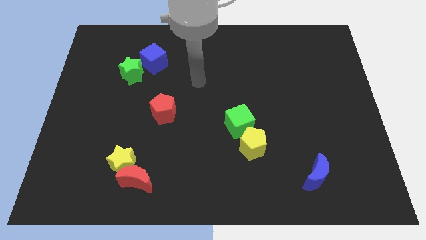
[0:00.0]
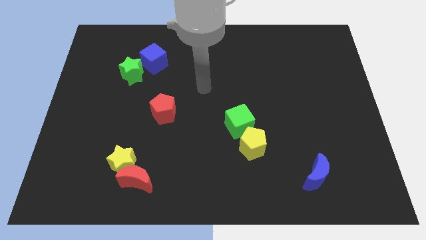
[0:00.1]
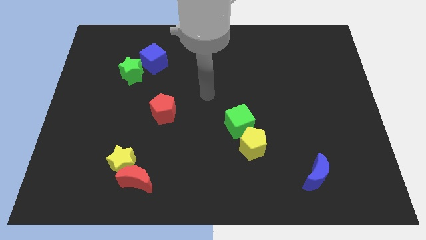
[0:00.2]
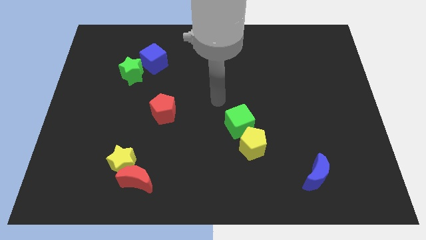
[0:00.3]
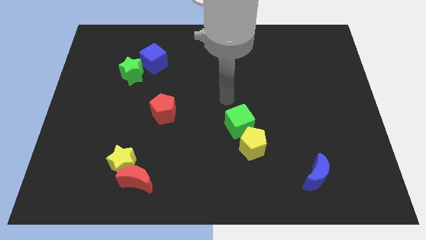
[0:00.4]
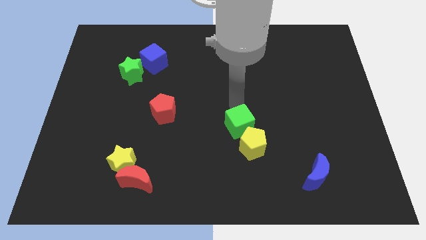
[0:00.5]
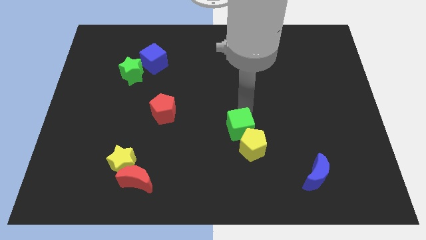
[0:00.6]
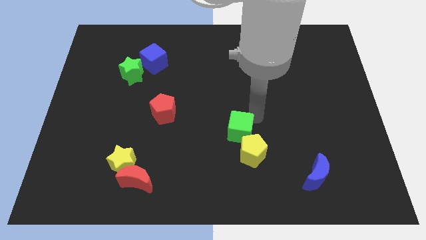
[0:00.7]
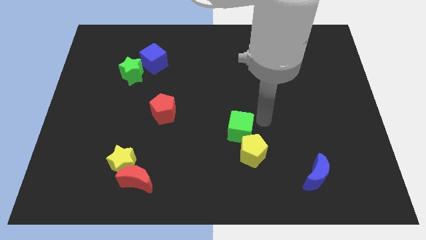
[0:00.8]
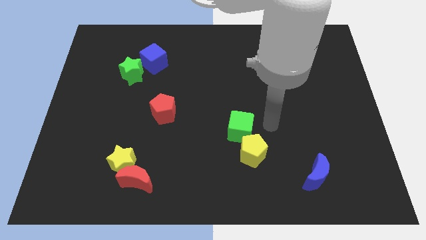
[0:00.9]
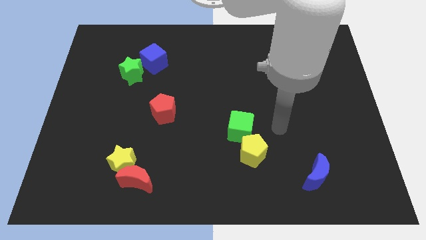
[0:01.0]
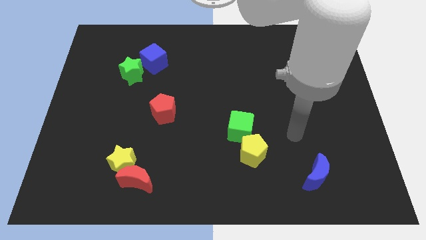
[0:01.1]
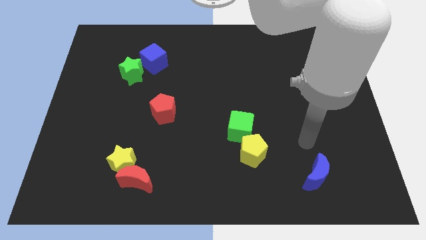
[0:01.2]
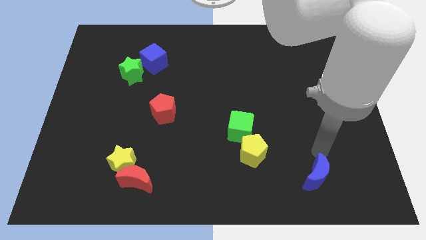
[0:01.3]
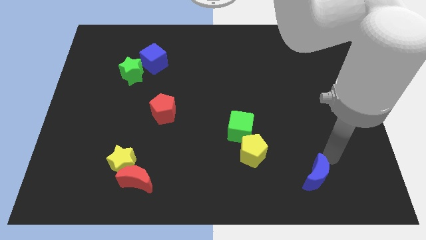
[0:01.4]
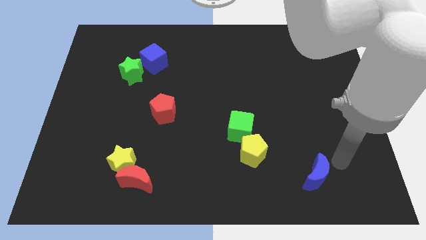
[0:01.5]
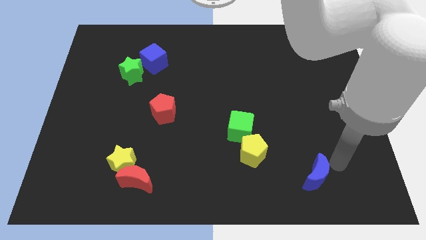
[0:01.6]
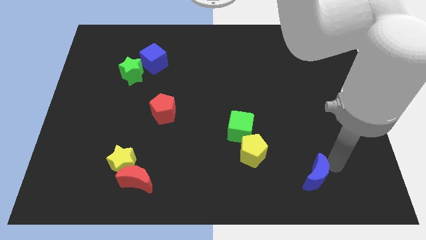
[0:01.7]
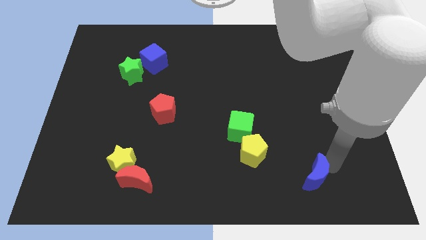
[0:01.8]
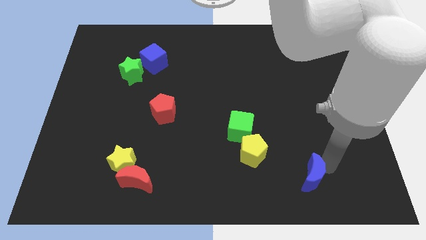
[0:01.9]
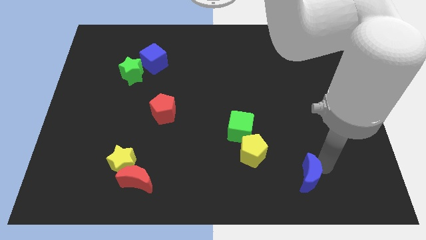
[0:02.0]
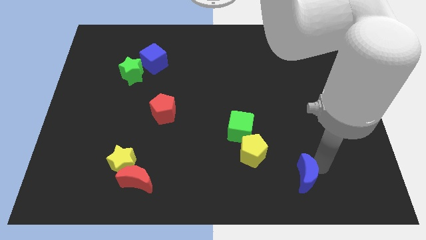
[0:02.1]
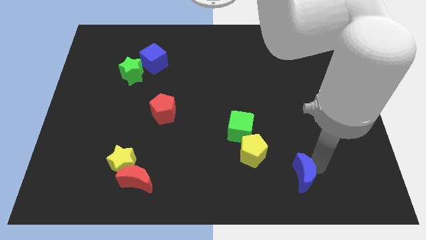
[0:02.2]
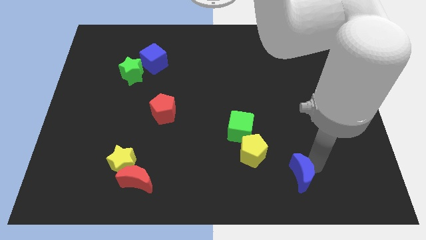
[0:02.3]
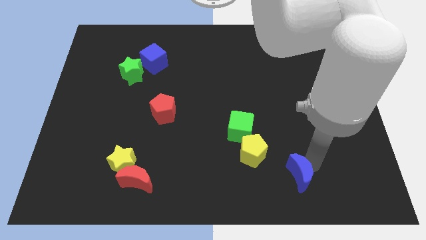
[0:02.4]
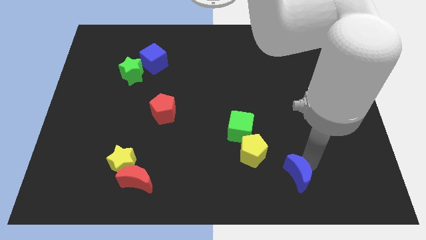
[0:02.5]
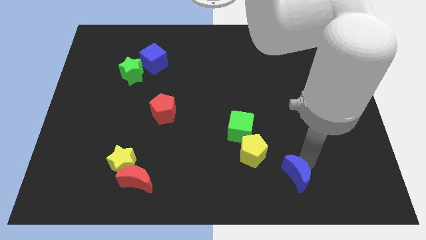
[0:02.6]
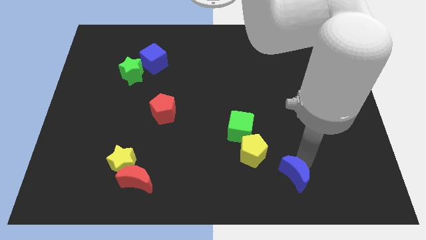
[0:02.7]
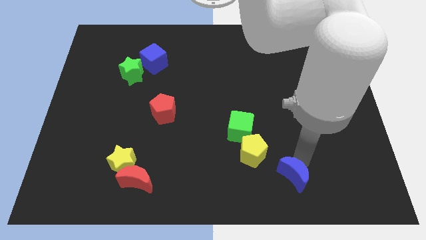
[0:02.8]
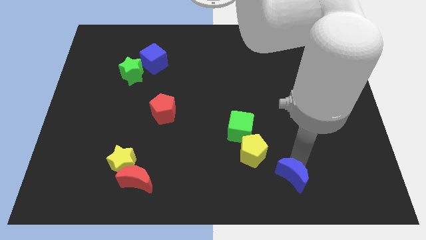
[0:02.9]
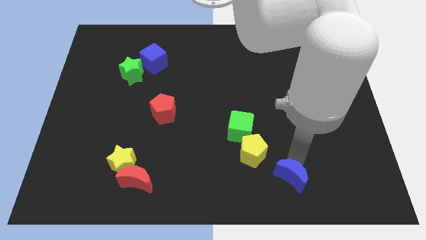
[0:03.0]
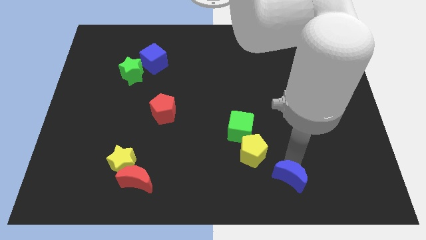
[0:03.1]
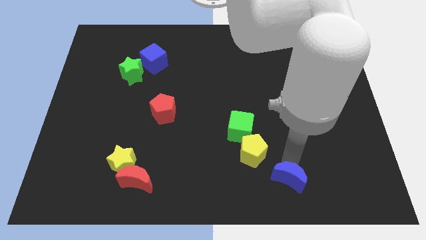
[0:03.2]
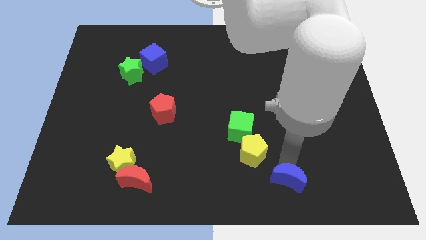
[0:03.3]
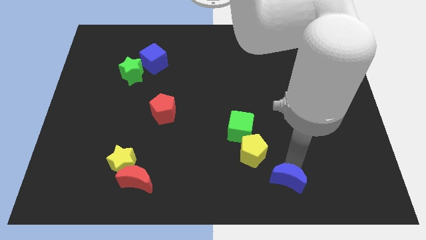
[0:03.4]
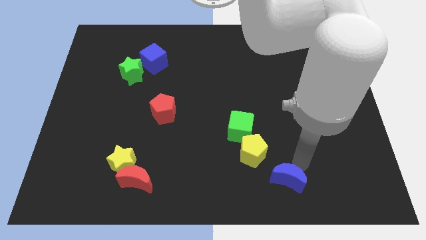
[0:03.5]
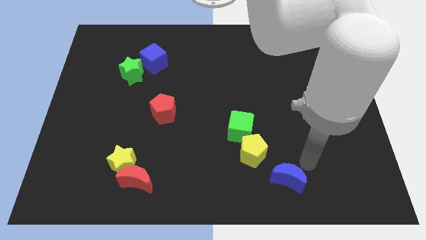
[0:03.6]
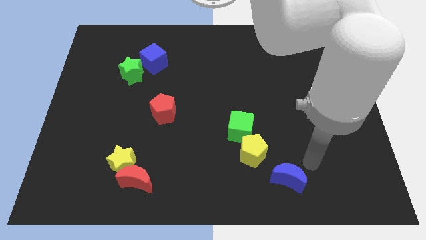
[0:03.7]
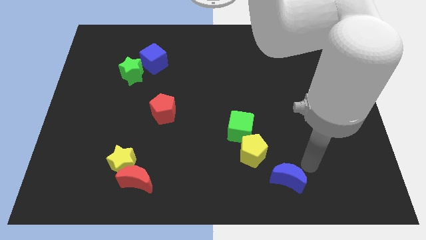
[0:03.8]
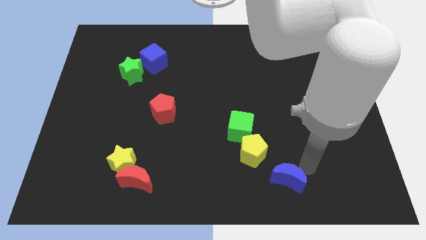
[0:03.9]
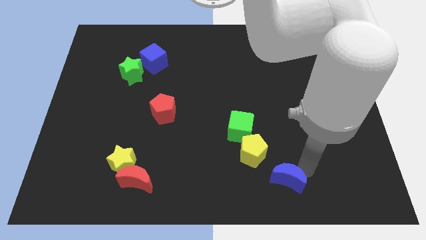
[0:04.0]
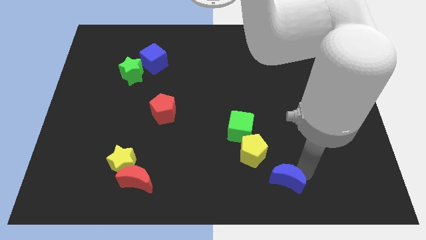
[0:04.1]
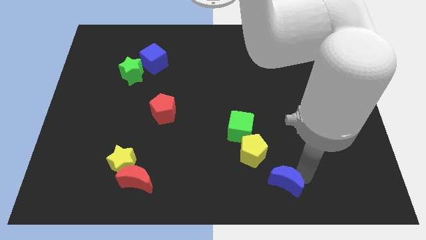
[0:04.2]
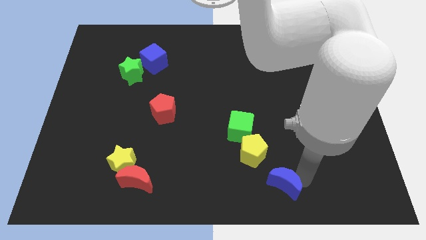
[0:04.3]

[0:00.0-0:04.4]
slightly slide the blue moon to the left

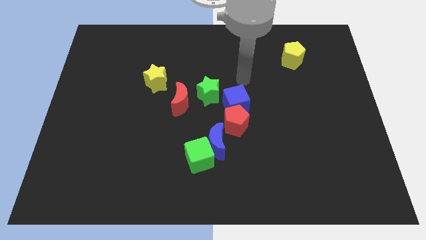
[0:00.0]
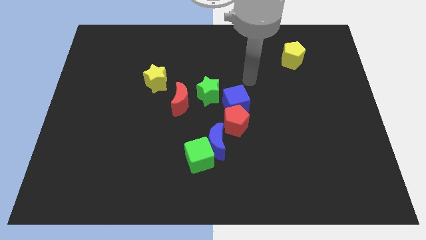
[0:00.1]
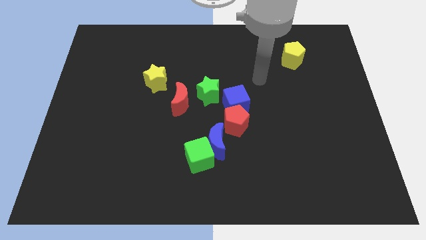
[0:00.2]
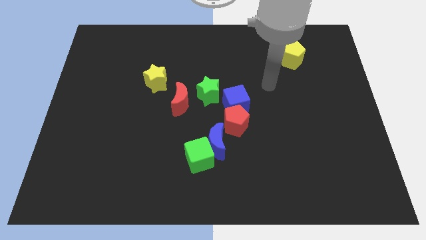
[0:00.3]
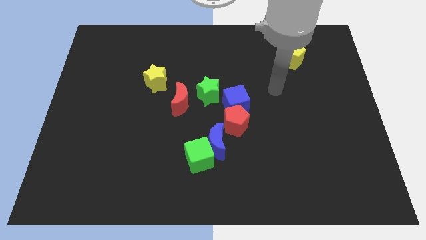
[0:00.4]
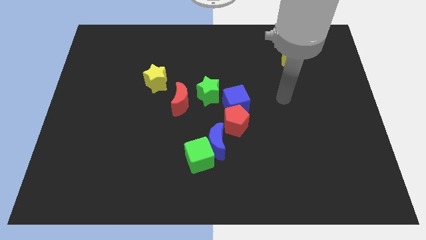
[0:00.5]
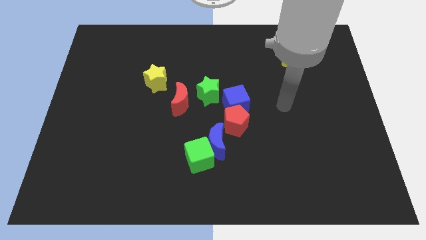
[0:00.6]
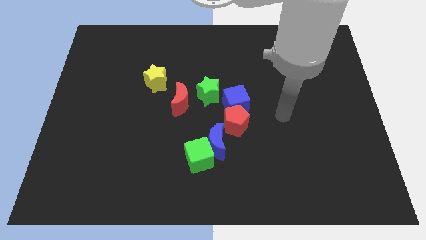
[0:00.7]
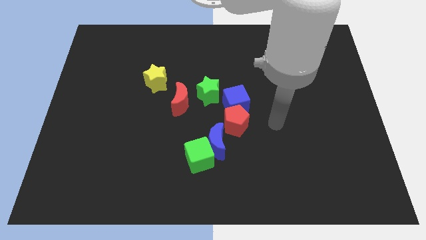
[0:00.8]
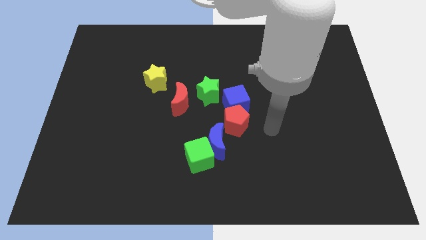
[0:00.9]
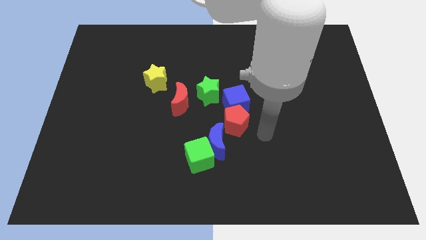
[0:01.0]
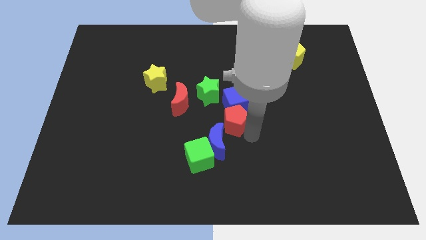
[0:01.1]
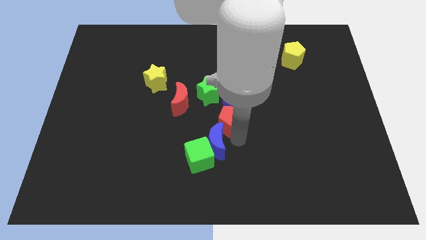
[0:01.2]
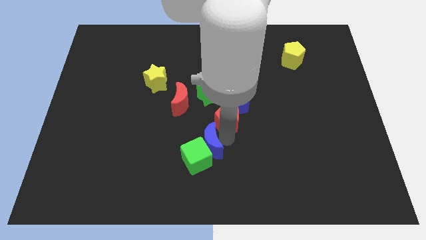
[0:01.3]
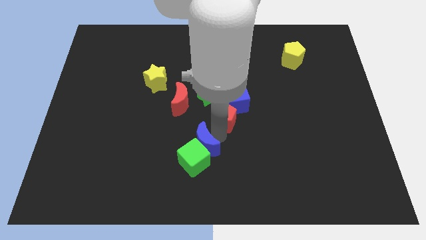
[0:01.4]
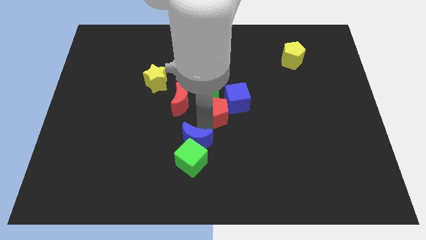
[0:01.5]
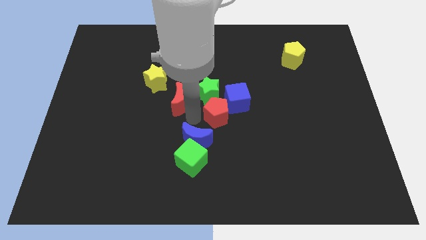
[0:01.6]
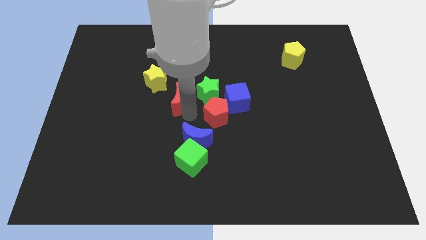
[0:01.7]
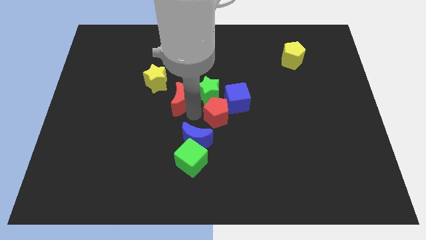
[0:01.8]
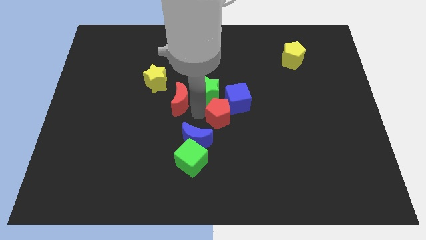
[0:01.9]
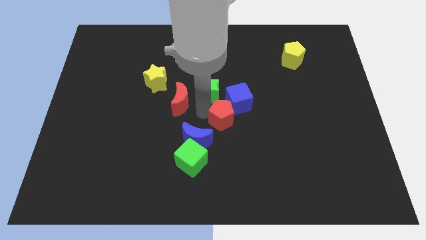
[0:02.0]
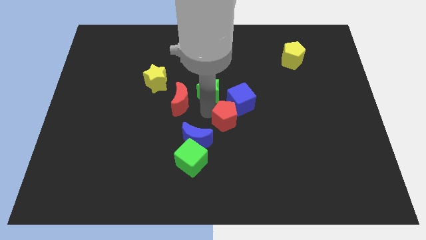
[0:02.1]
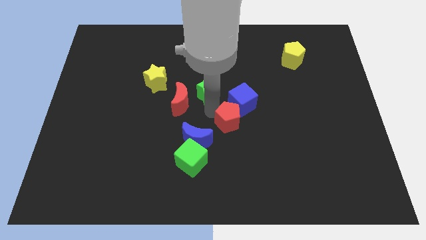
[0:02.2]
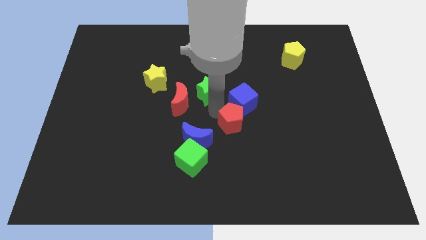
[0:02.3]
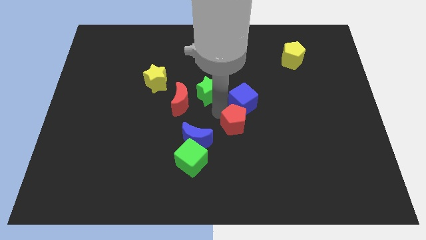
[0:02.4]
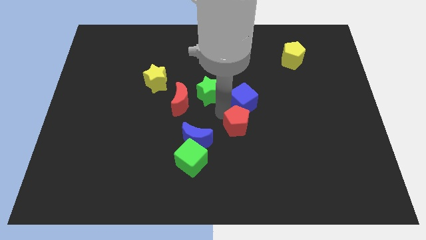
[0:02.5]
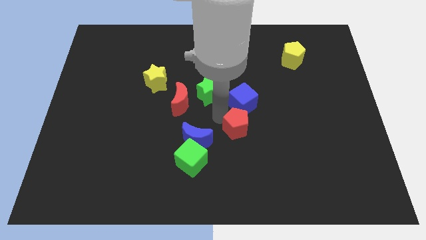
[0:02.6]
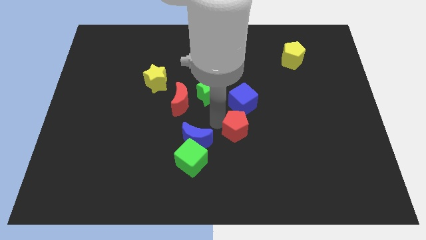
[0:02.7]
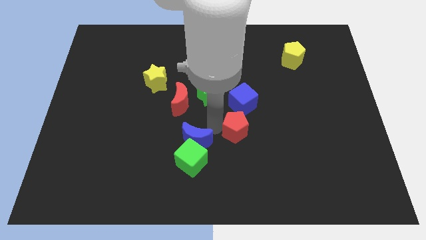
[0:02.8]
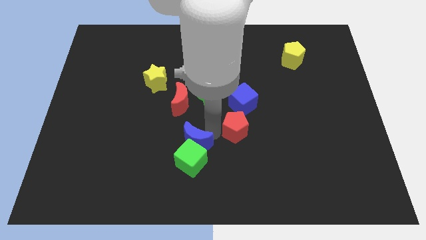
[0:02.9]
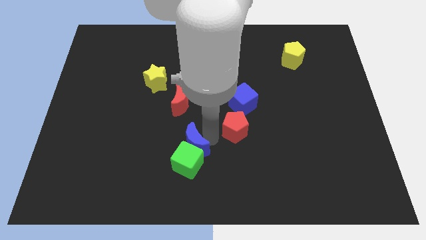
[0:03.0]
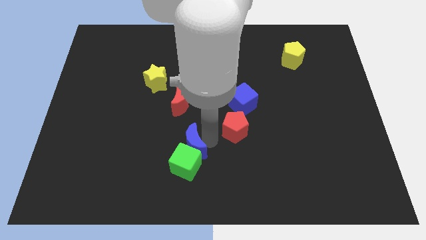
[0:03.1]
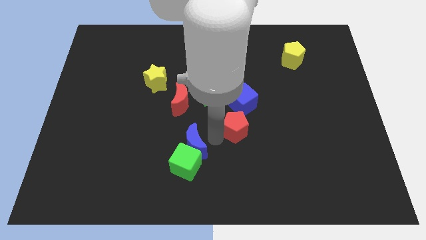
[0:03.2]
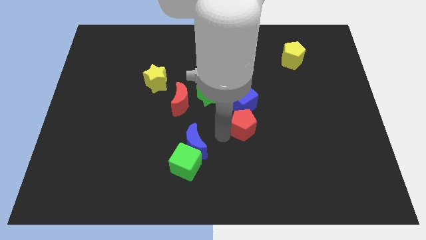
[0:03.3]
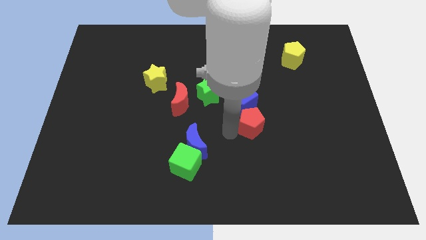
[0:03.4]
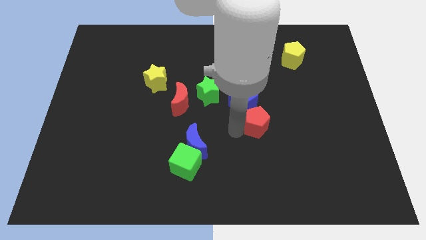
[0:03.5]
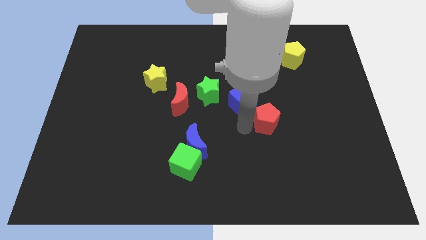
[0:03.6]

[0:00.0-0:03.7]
slightly move the red pentagon right
